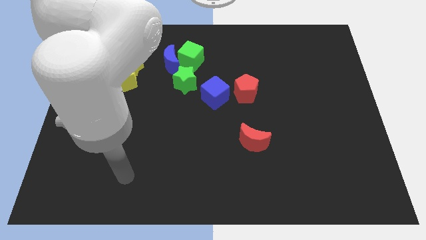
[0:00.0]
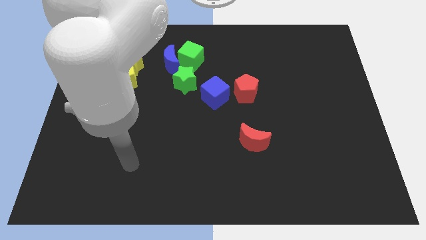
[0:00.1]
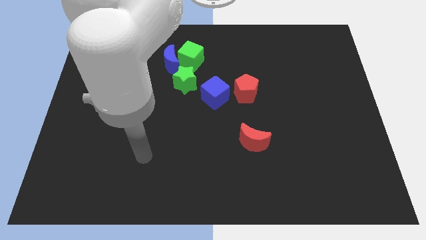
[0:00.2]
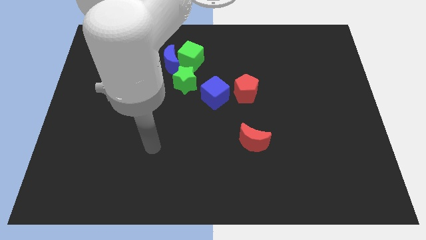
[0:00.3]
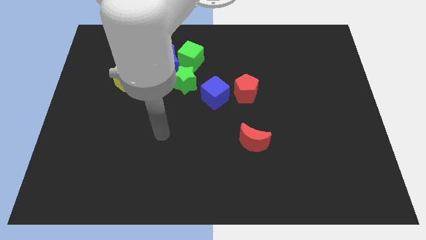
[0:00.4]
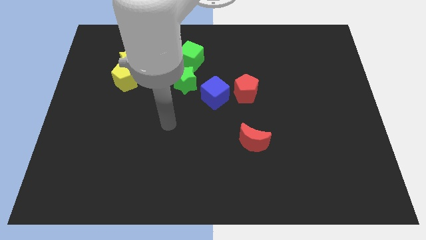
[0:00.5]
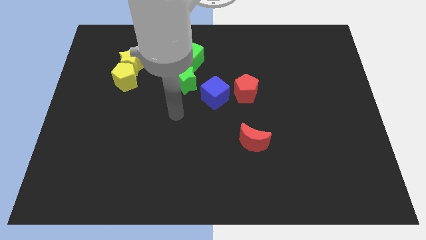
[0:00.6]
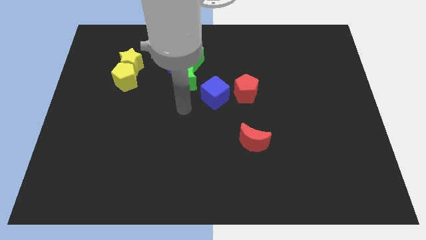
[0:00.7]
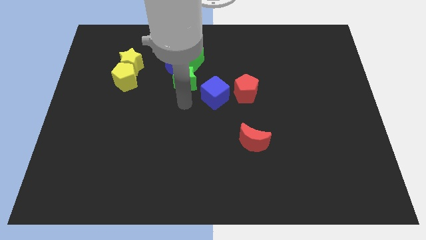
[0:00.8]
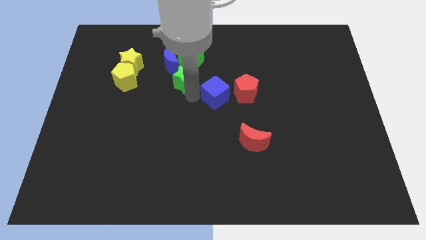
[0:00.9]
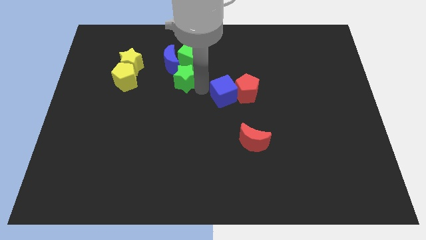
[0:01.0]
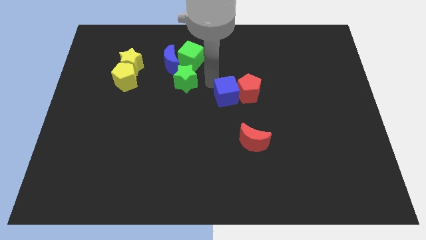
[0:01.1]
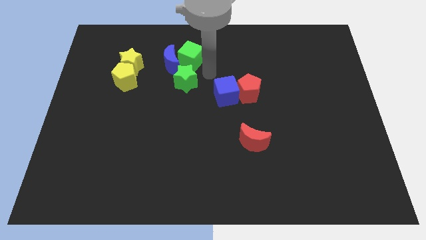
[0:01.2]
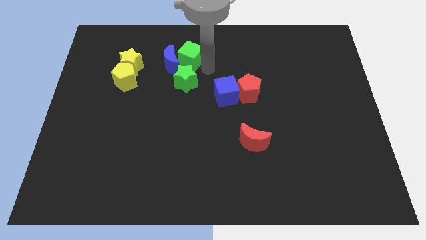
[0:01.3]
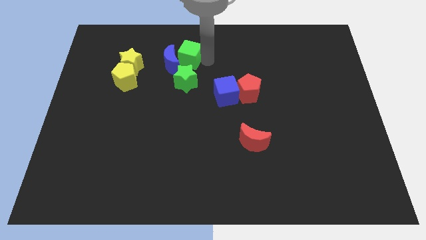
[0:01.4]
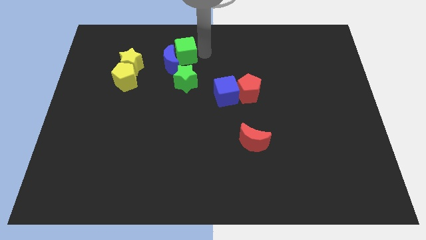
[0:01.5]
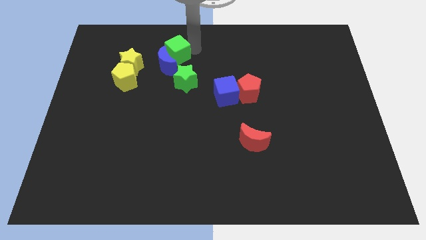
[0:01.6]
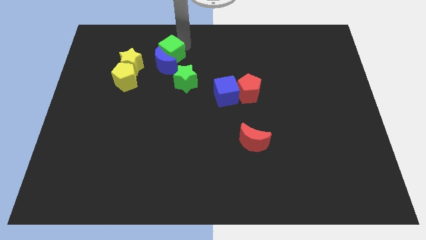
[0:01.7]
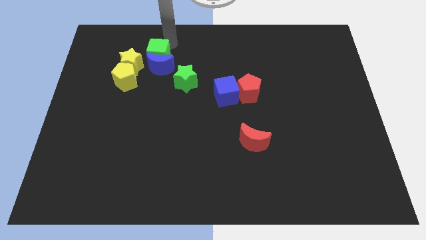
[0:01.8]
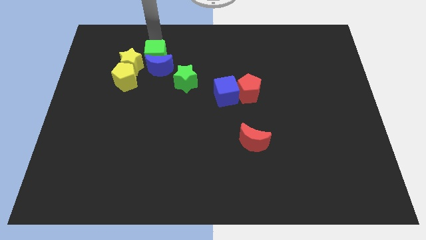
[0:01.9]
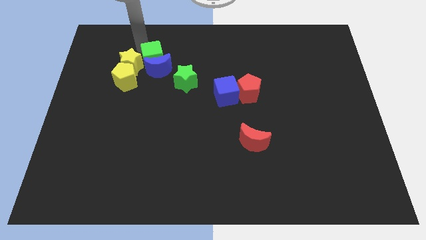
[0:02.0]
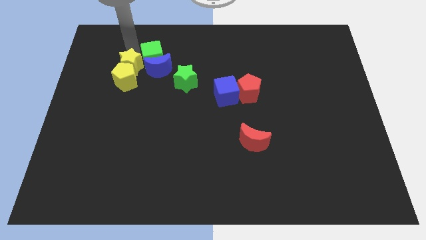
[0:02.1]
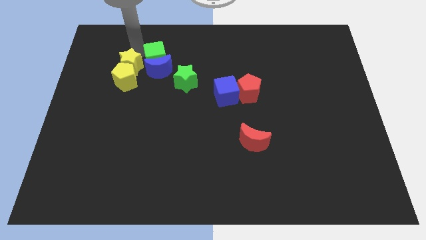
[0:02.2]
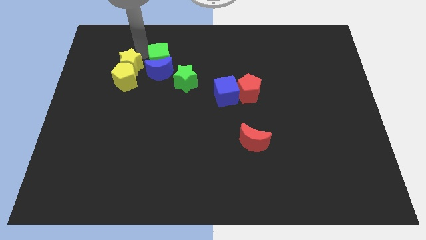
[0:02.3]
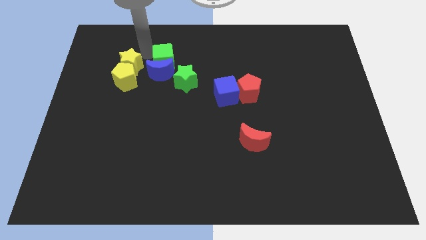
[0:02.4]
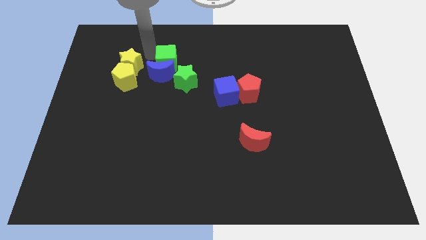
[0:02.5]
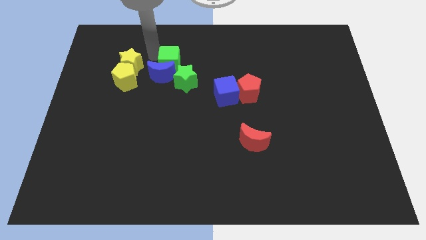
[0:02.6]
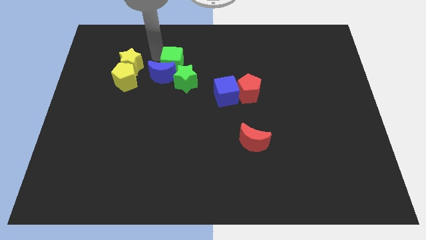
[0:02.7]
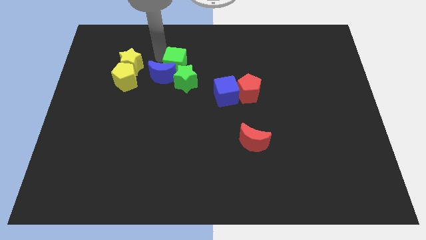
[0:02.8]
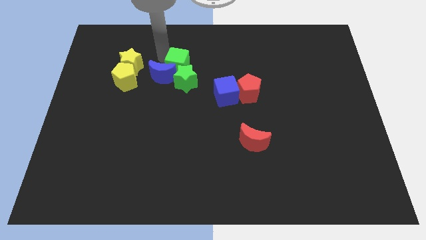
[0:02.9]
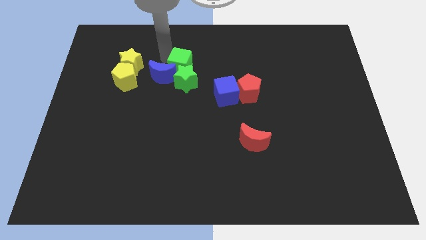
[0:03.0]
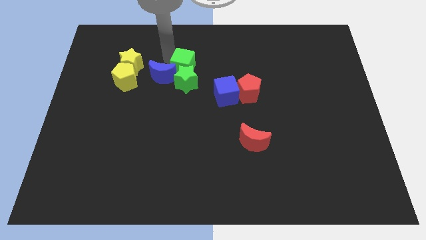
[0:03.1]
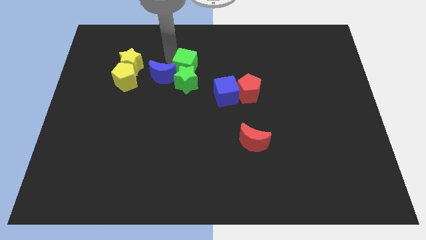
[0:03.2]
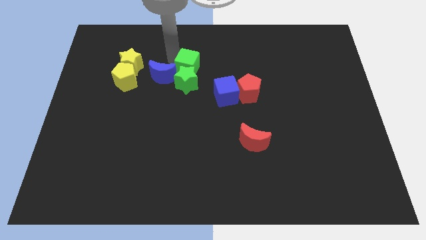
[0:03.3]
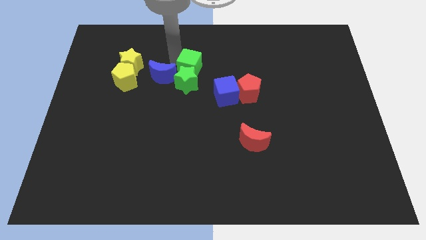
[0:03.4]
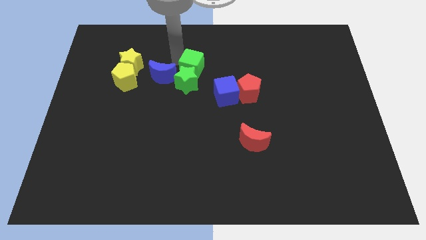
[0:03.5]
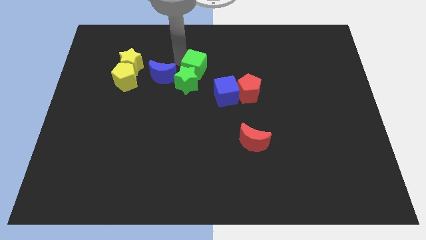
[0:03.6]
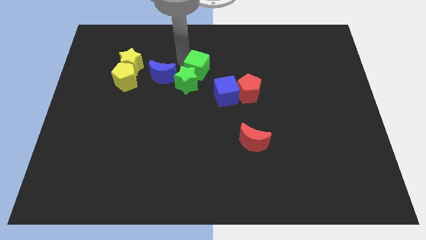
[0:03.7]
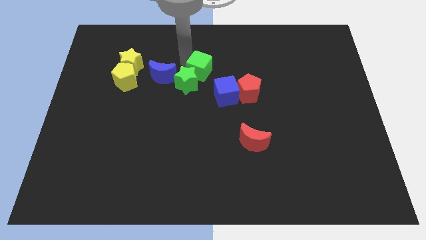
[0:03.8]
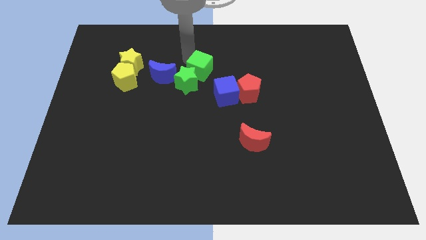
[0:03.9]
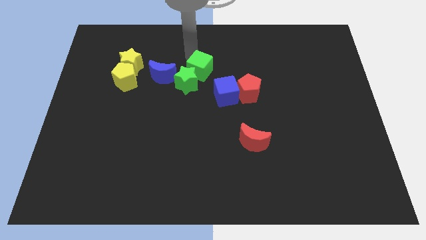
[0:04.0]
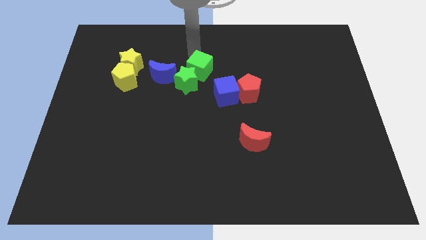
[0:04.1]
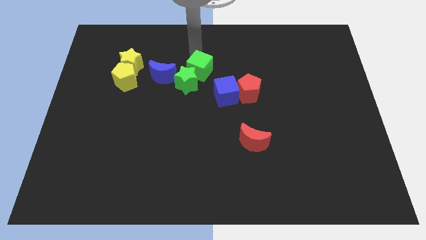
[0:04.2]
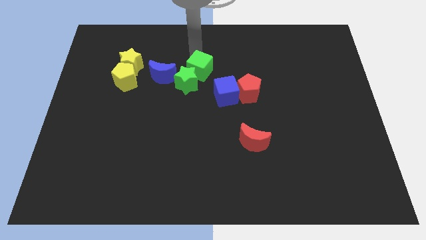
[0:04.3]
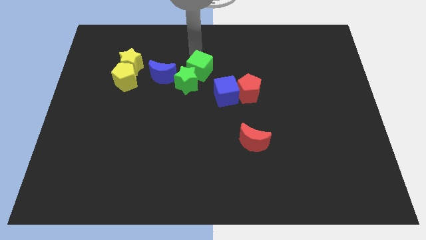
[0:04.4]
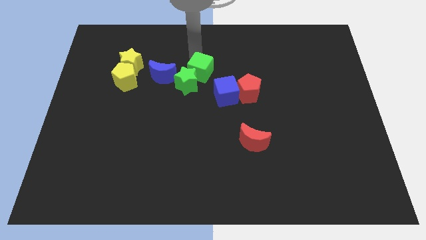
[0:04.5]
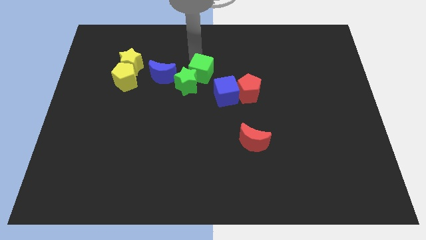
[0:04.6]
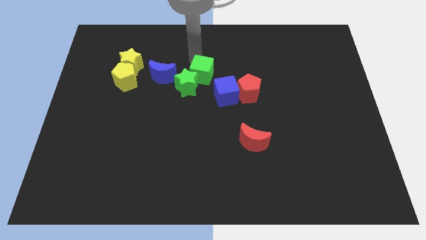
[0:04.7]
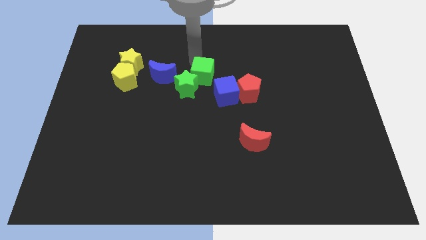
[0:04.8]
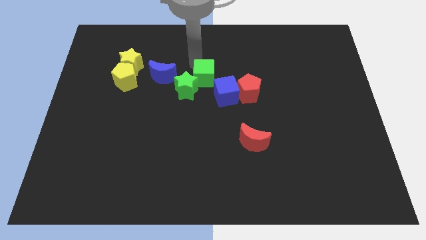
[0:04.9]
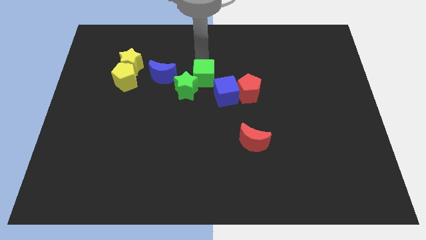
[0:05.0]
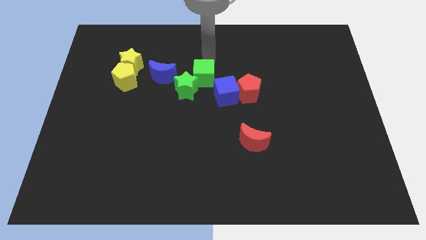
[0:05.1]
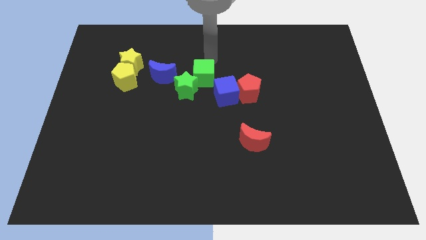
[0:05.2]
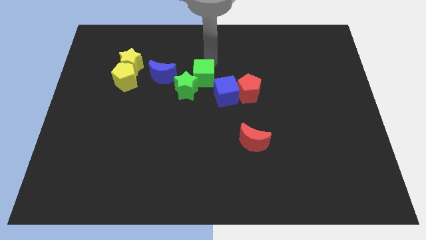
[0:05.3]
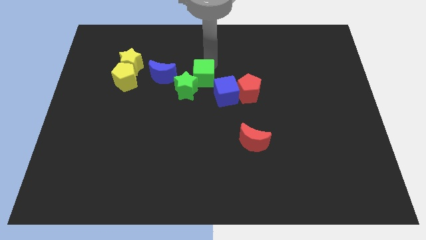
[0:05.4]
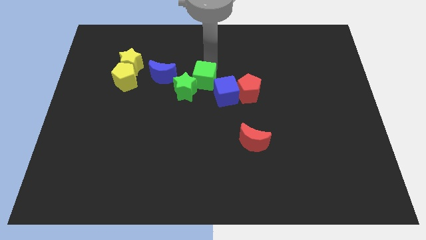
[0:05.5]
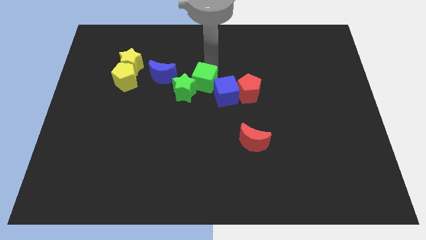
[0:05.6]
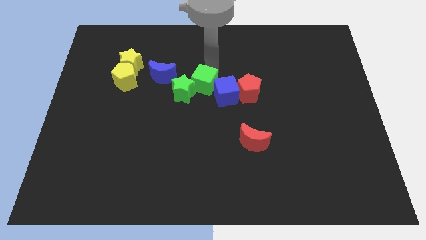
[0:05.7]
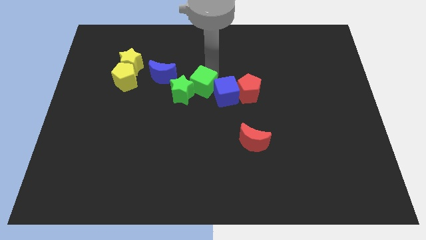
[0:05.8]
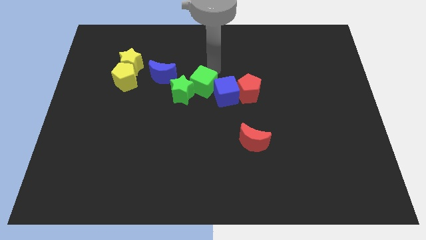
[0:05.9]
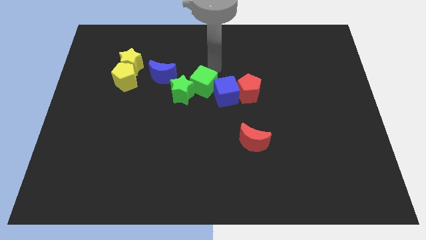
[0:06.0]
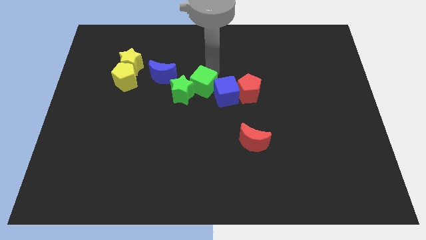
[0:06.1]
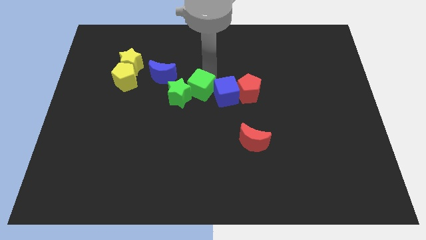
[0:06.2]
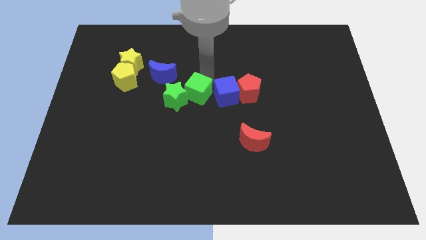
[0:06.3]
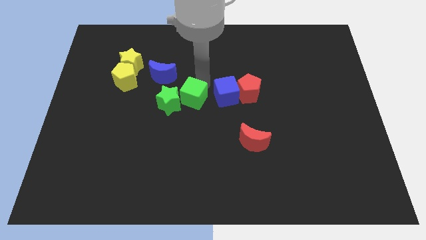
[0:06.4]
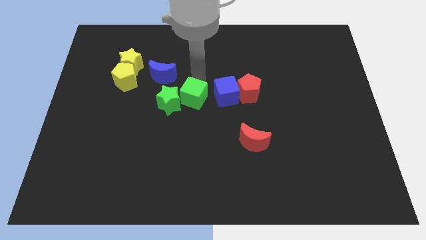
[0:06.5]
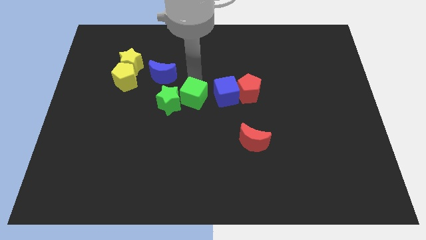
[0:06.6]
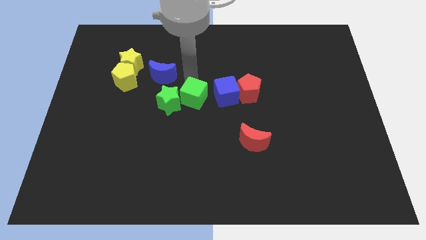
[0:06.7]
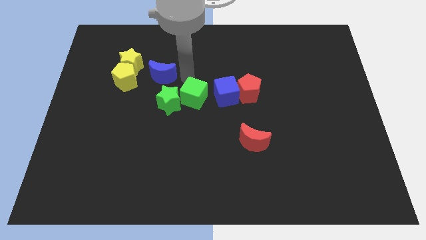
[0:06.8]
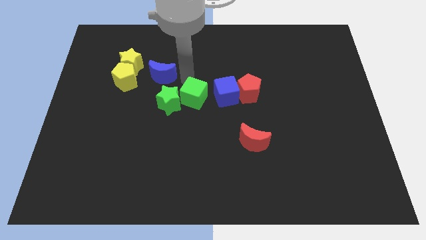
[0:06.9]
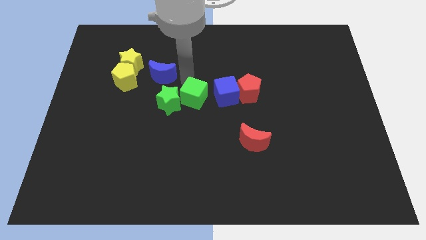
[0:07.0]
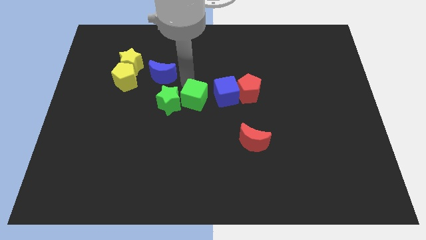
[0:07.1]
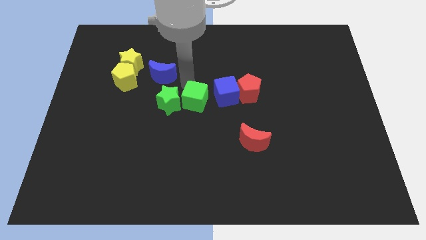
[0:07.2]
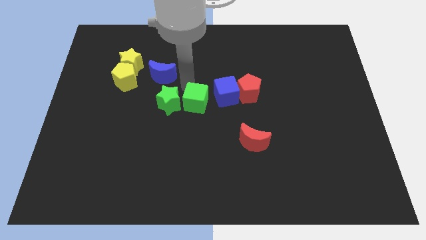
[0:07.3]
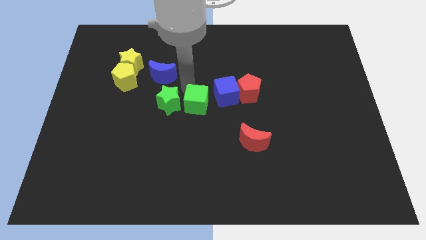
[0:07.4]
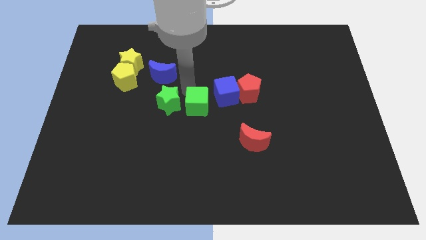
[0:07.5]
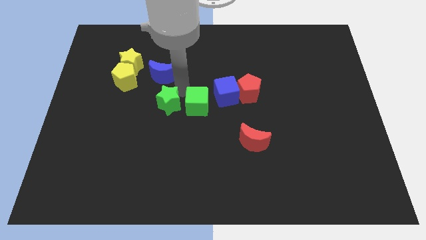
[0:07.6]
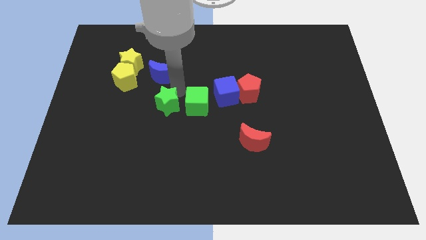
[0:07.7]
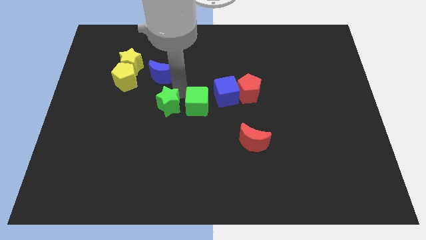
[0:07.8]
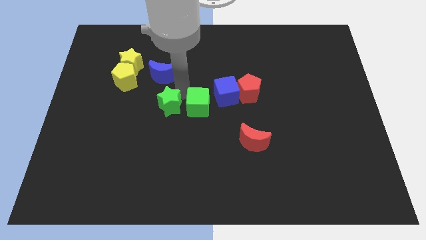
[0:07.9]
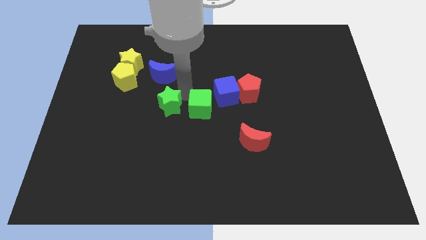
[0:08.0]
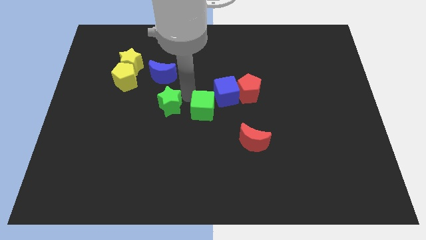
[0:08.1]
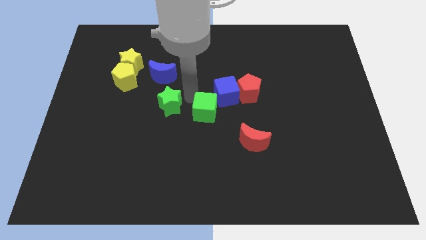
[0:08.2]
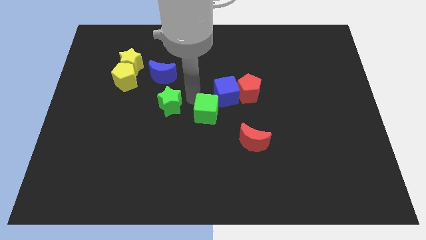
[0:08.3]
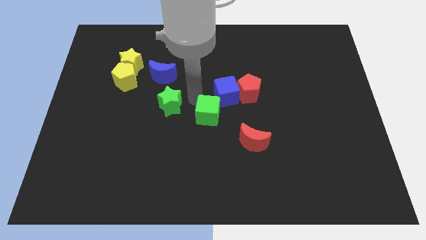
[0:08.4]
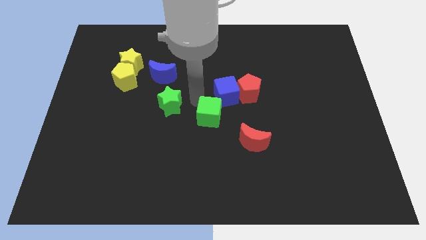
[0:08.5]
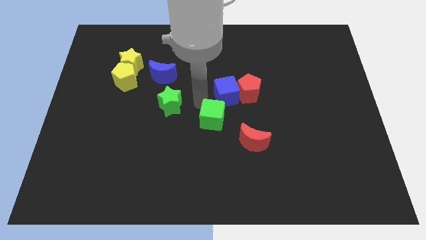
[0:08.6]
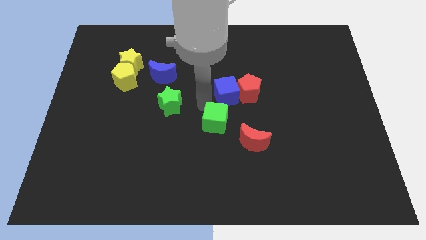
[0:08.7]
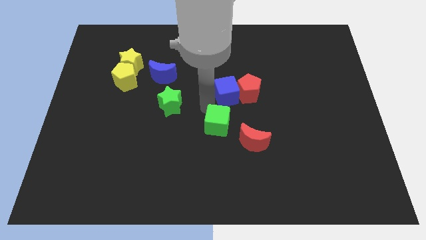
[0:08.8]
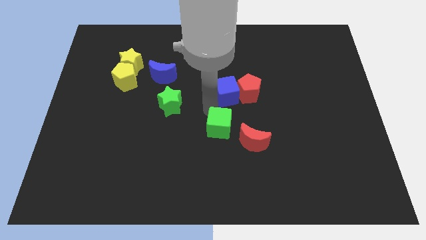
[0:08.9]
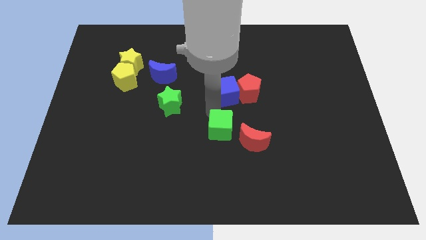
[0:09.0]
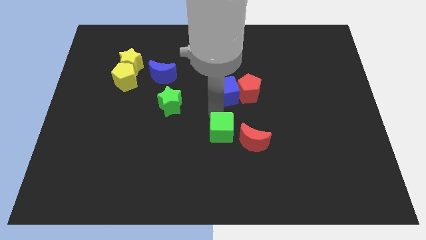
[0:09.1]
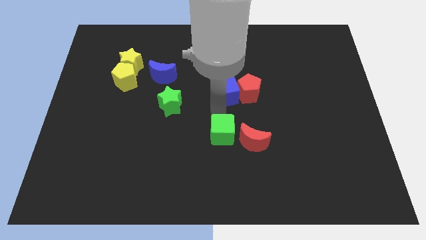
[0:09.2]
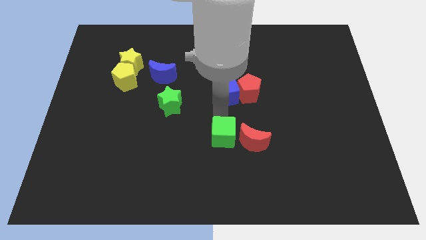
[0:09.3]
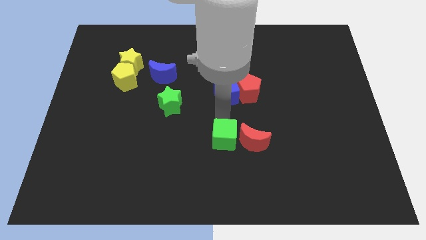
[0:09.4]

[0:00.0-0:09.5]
slide the green cube towards the red moon
